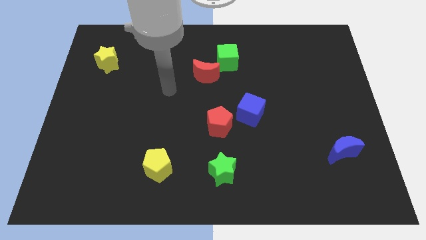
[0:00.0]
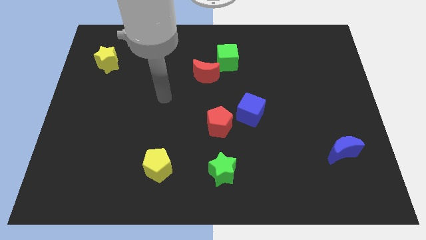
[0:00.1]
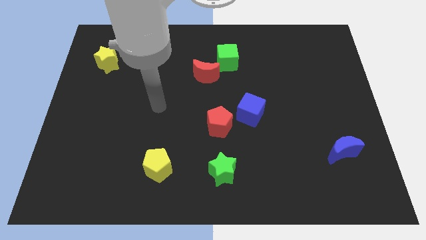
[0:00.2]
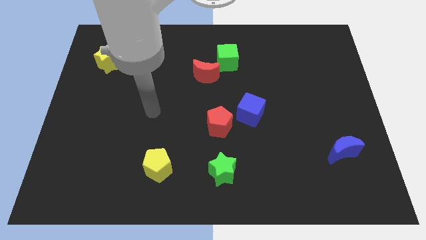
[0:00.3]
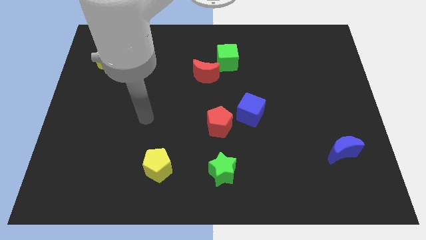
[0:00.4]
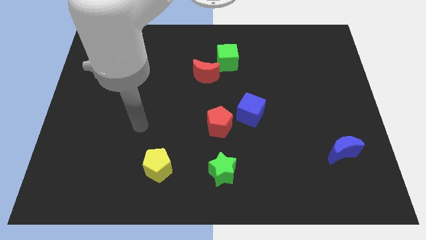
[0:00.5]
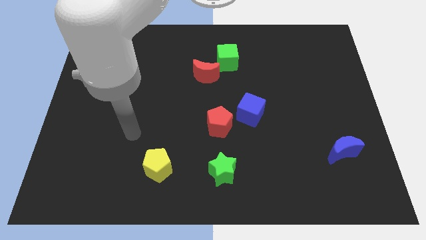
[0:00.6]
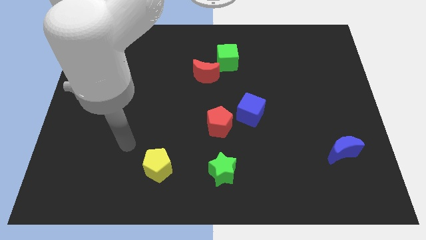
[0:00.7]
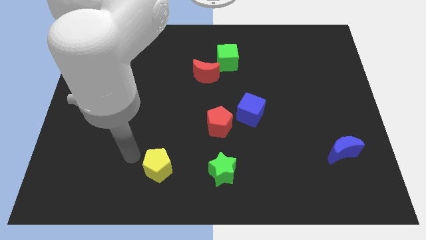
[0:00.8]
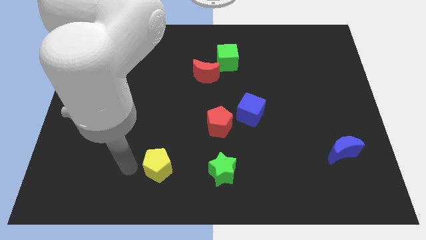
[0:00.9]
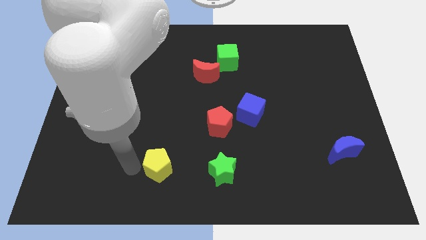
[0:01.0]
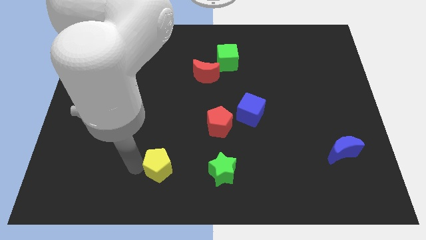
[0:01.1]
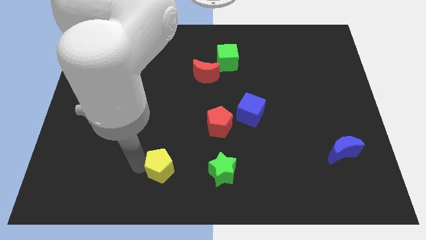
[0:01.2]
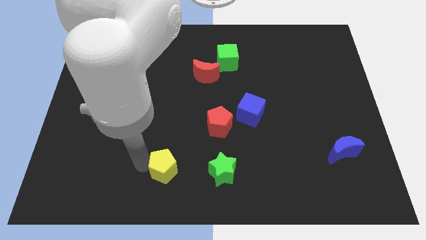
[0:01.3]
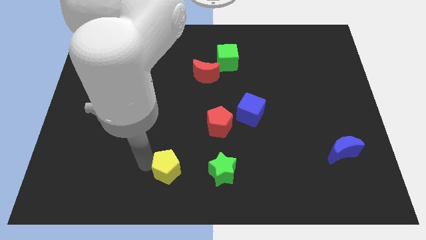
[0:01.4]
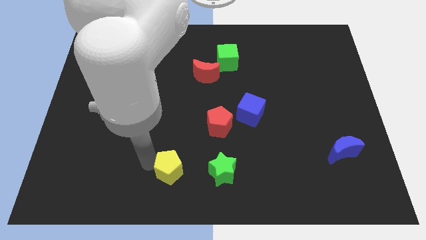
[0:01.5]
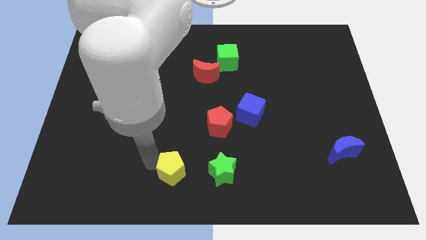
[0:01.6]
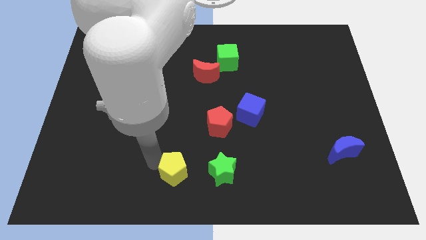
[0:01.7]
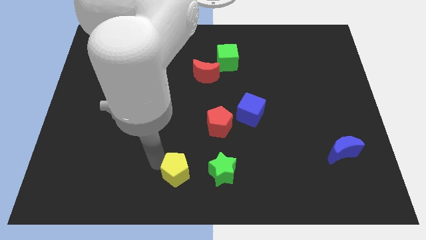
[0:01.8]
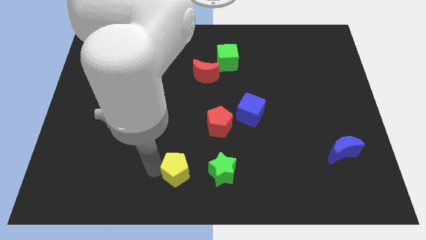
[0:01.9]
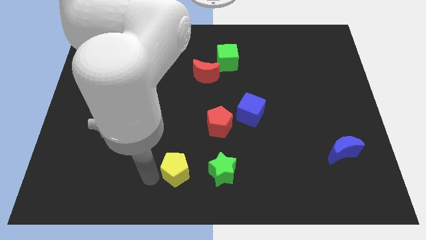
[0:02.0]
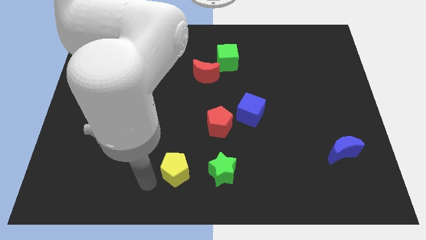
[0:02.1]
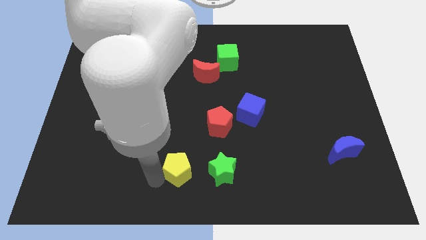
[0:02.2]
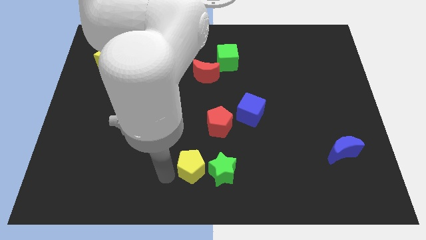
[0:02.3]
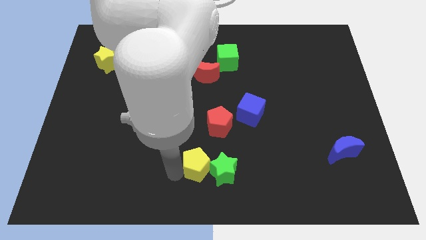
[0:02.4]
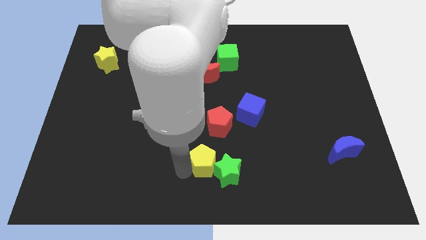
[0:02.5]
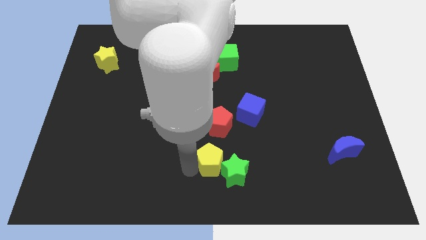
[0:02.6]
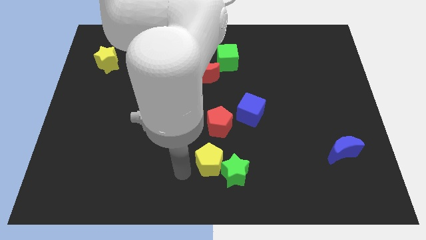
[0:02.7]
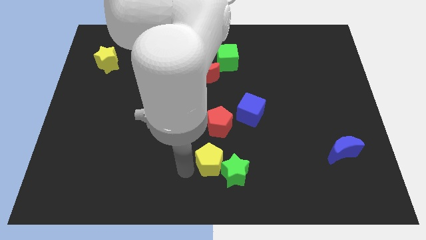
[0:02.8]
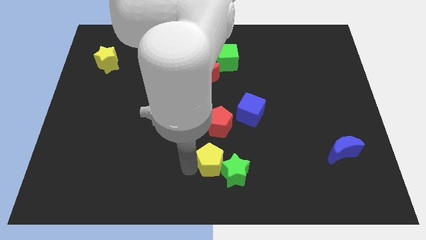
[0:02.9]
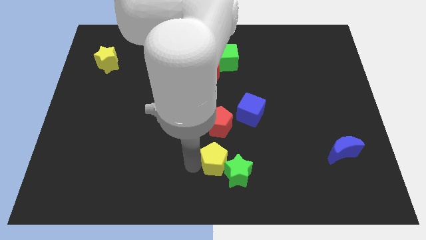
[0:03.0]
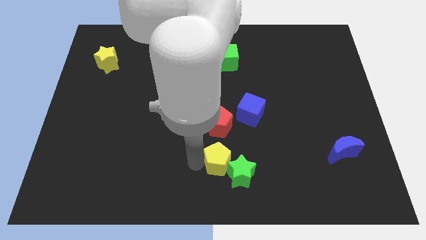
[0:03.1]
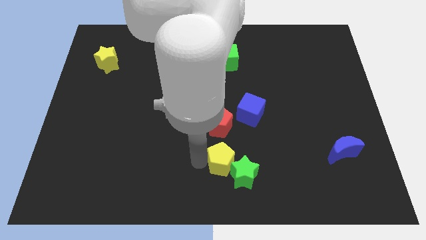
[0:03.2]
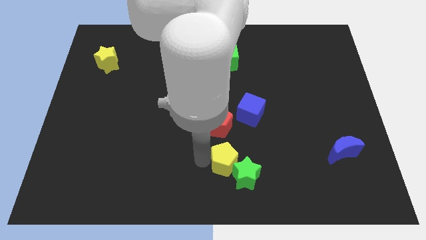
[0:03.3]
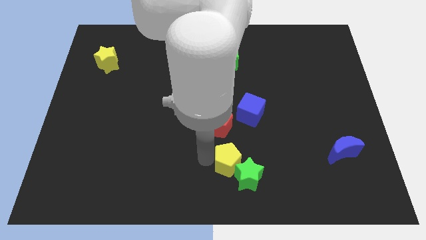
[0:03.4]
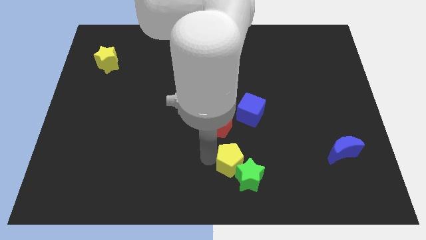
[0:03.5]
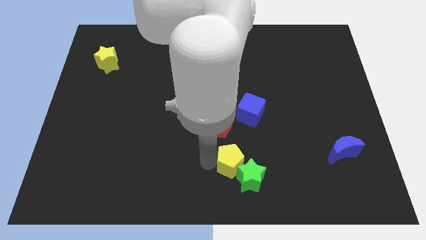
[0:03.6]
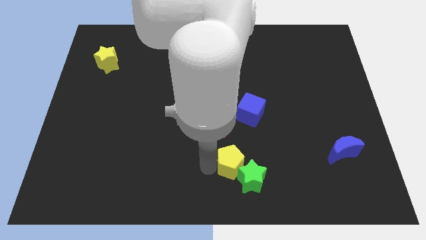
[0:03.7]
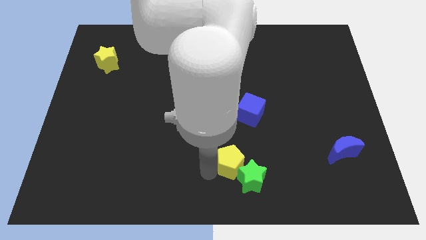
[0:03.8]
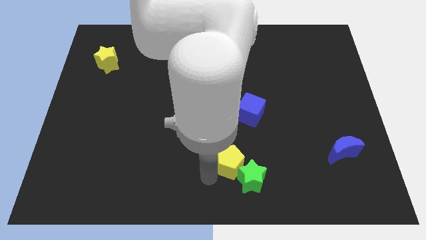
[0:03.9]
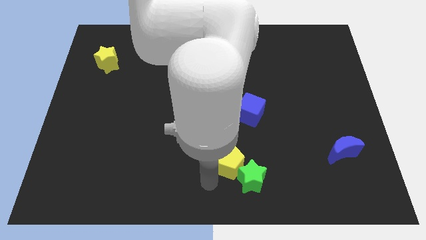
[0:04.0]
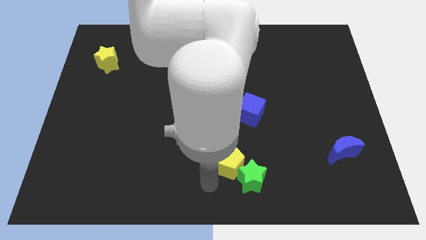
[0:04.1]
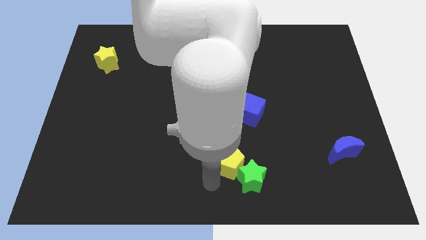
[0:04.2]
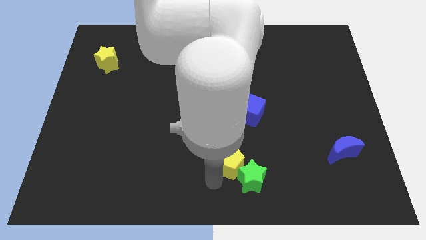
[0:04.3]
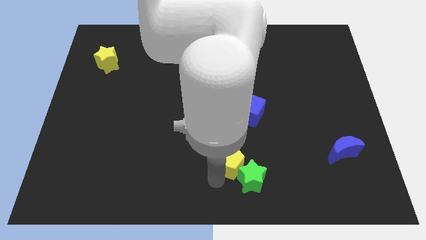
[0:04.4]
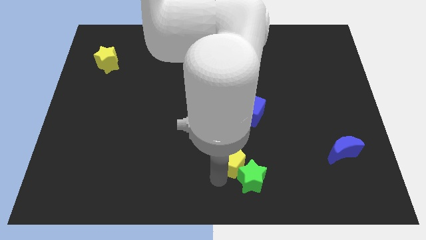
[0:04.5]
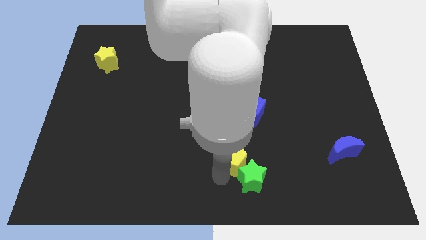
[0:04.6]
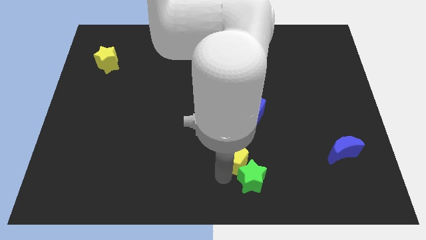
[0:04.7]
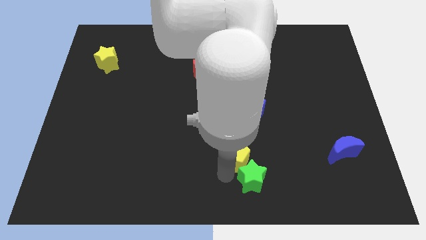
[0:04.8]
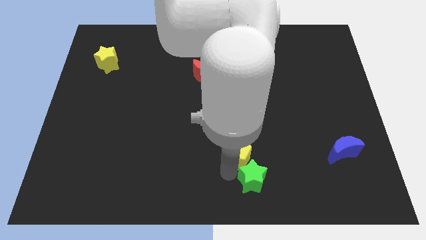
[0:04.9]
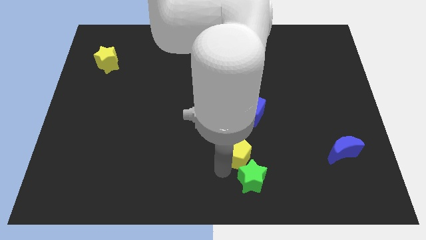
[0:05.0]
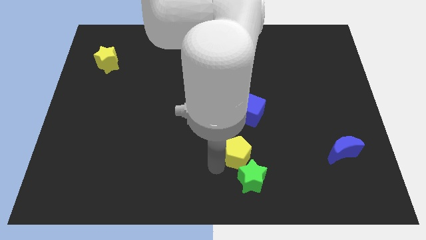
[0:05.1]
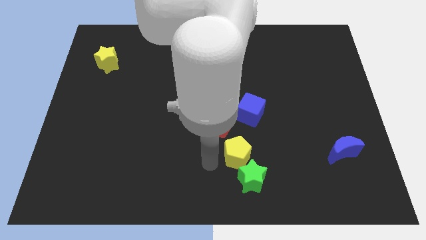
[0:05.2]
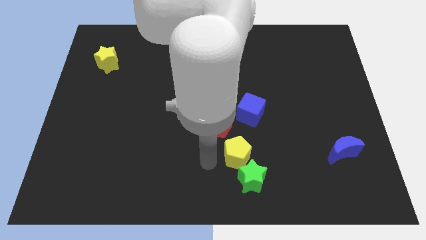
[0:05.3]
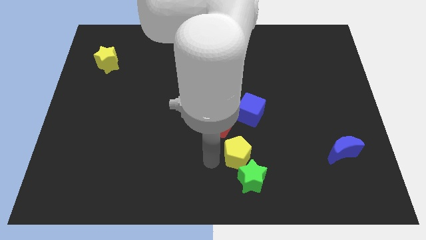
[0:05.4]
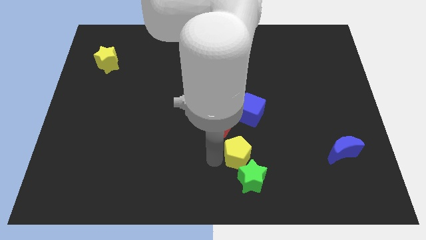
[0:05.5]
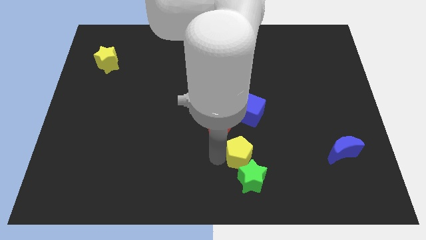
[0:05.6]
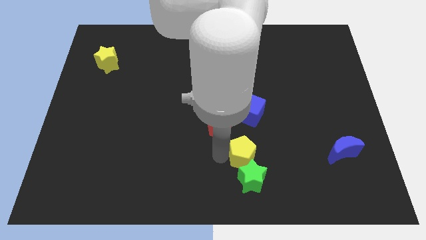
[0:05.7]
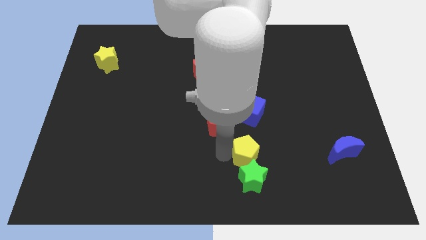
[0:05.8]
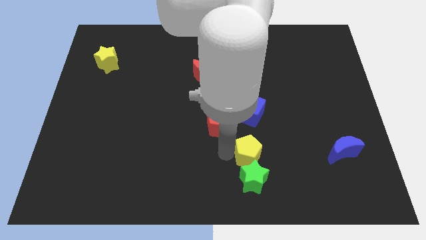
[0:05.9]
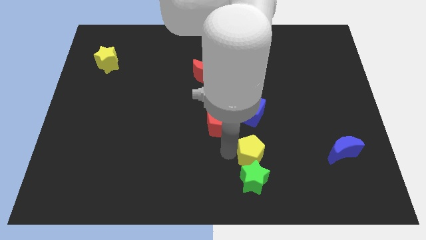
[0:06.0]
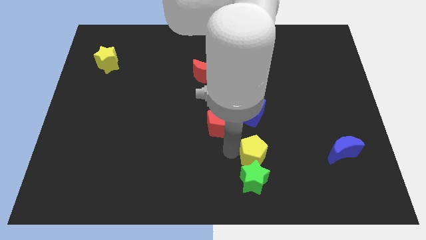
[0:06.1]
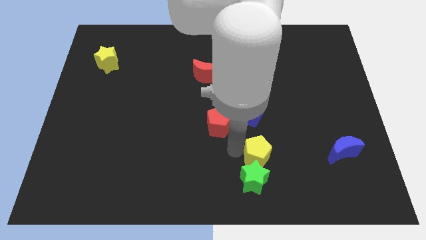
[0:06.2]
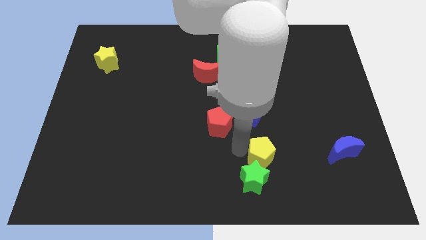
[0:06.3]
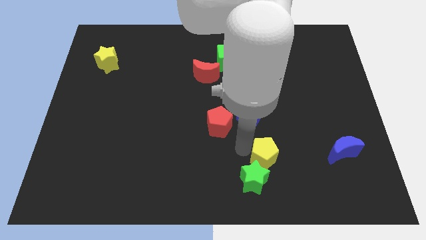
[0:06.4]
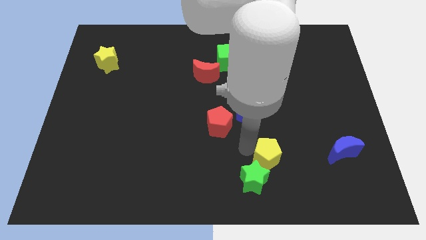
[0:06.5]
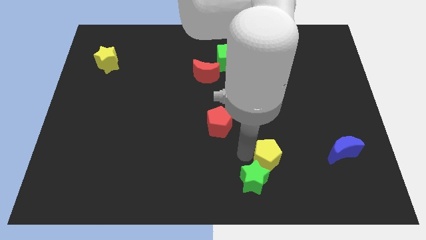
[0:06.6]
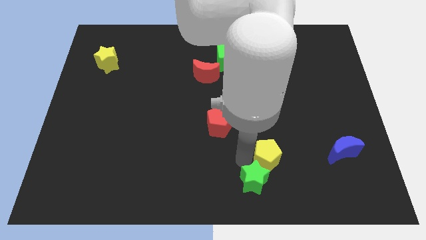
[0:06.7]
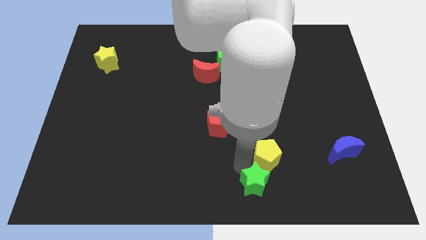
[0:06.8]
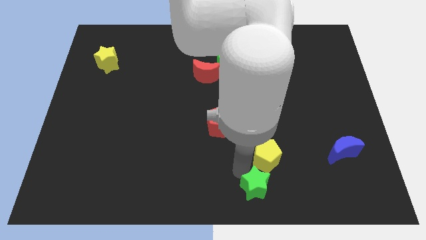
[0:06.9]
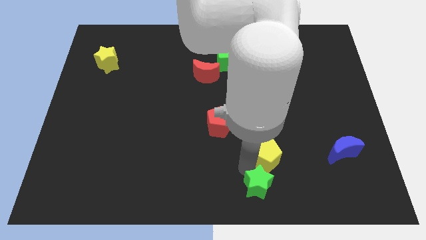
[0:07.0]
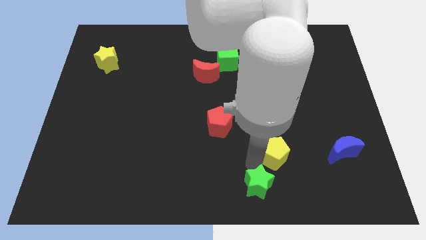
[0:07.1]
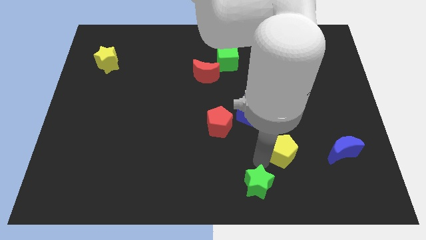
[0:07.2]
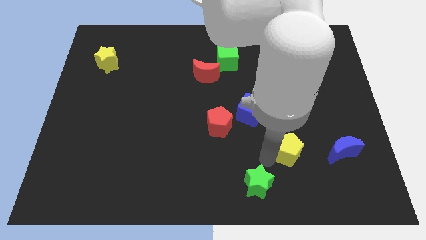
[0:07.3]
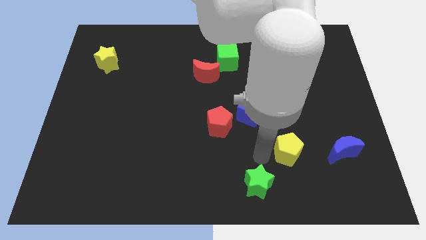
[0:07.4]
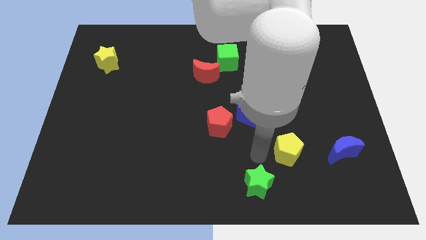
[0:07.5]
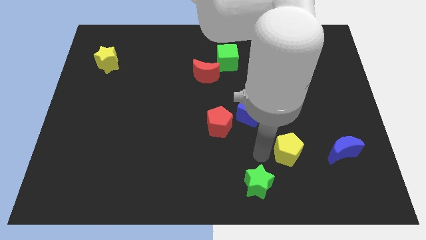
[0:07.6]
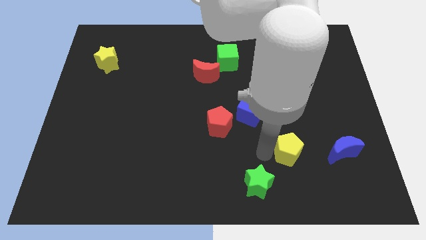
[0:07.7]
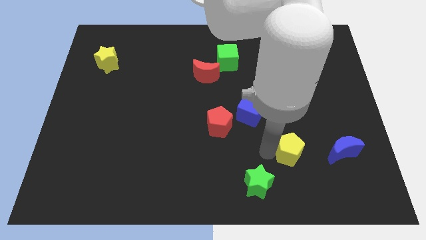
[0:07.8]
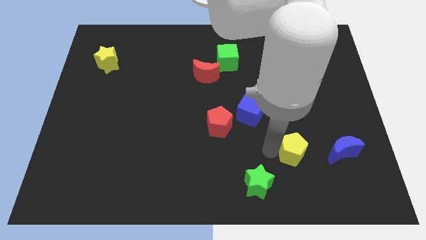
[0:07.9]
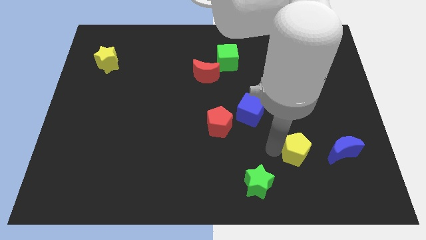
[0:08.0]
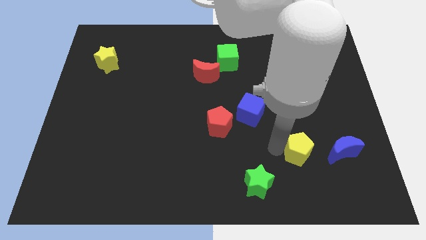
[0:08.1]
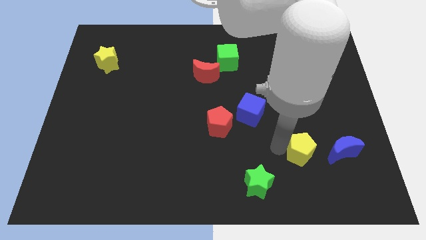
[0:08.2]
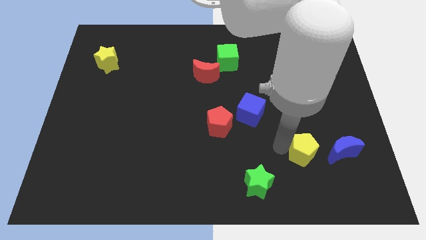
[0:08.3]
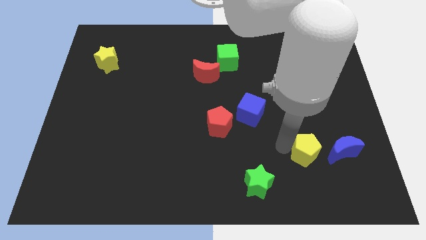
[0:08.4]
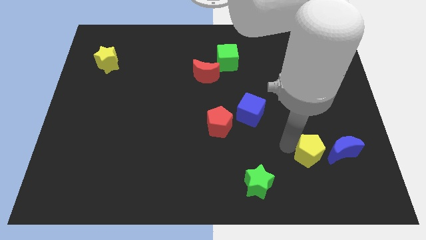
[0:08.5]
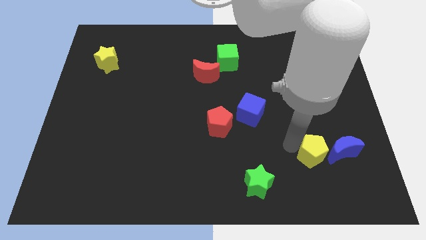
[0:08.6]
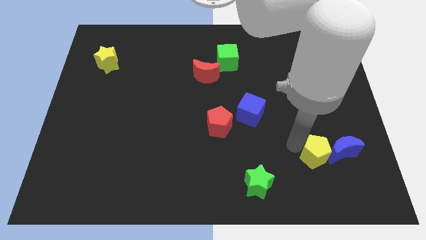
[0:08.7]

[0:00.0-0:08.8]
move the yellow pentagon towards the blue moon
